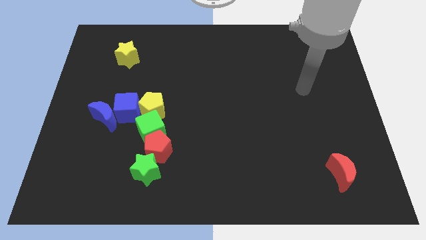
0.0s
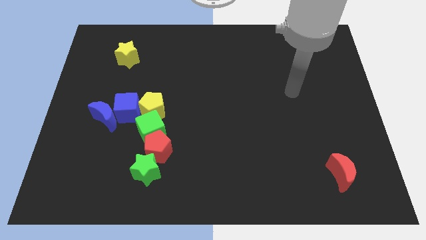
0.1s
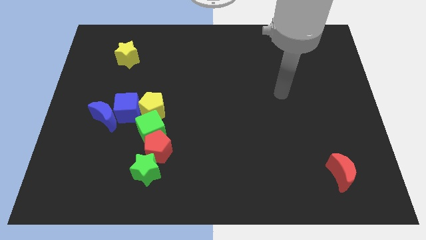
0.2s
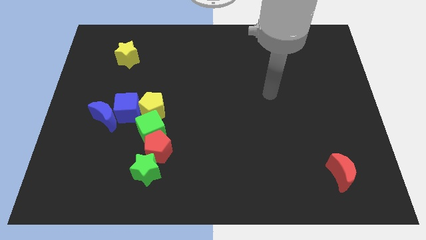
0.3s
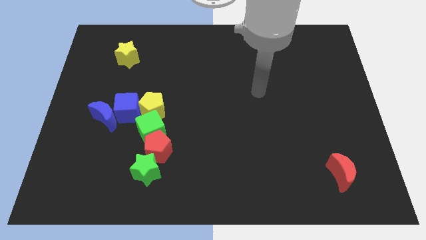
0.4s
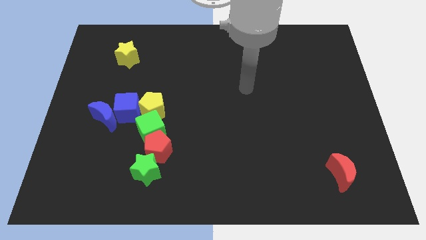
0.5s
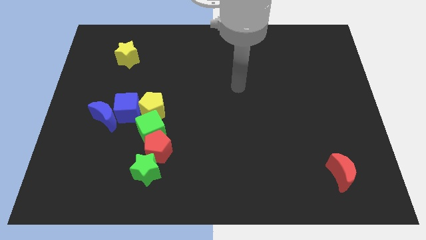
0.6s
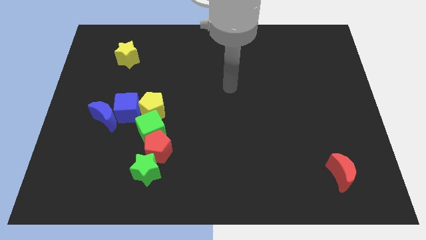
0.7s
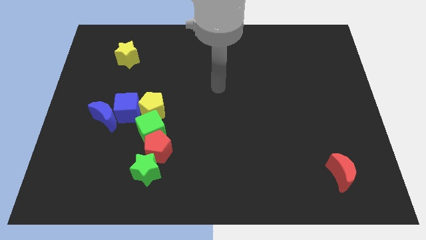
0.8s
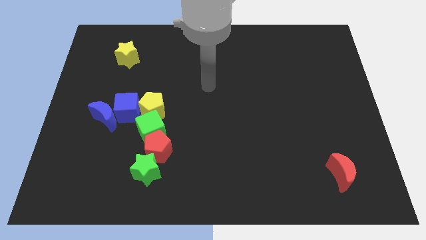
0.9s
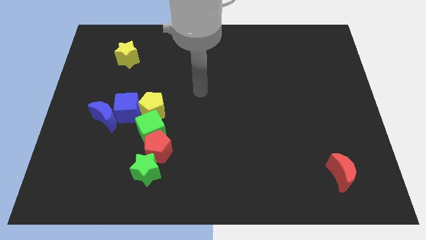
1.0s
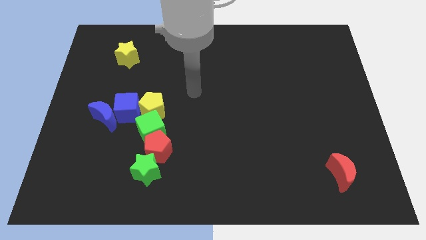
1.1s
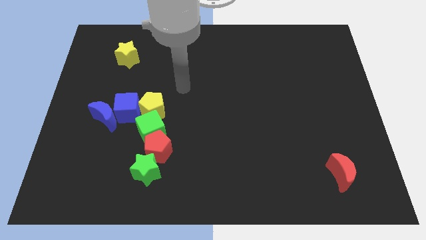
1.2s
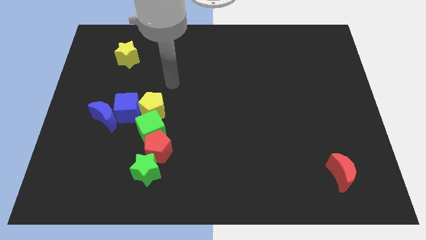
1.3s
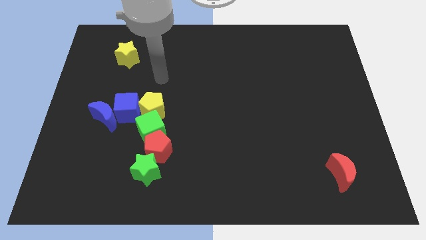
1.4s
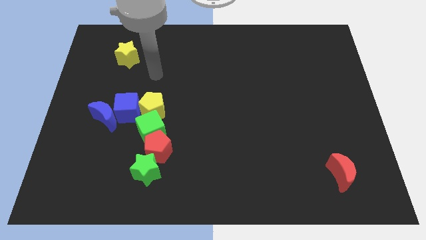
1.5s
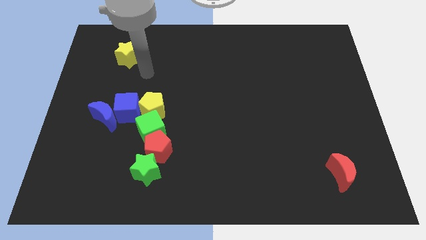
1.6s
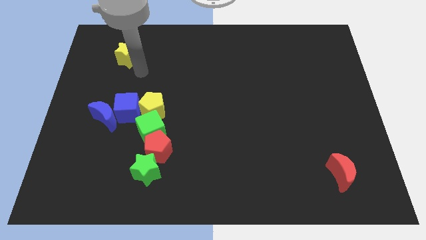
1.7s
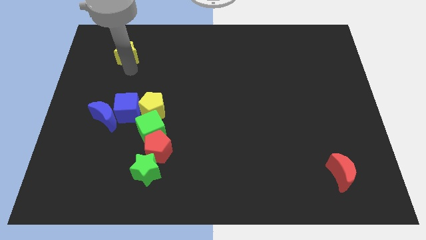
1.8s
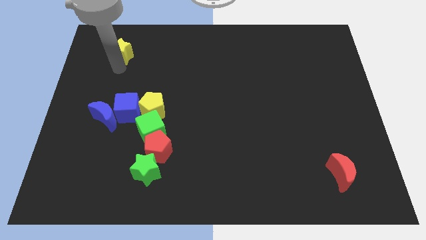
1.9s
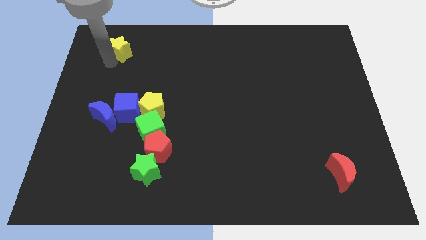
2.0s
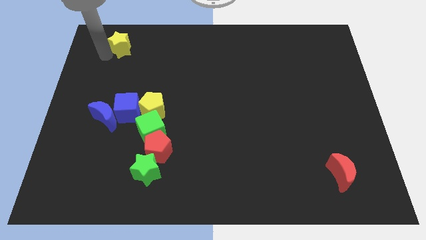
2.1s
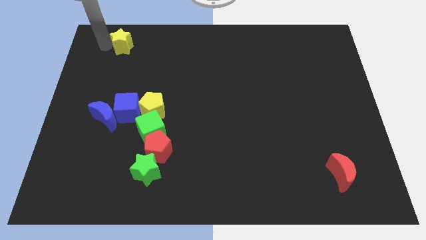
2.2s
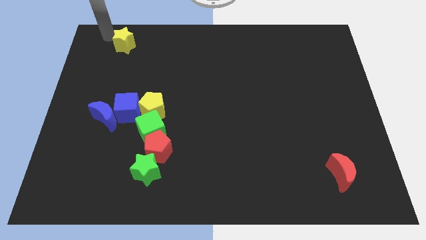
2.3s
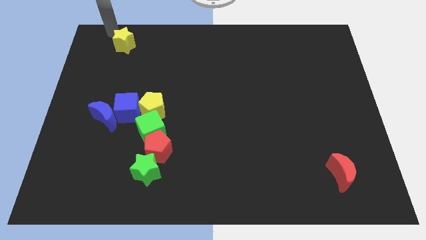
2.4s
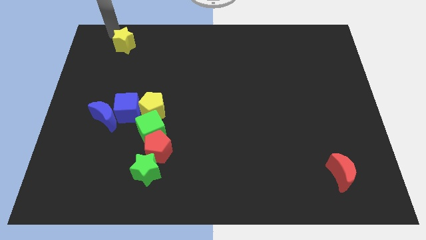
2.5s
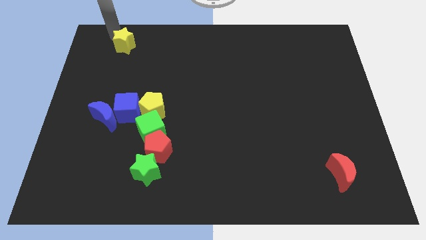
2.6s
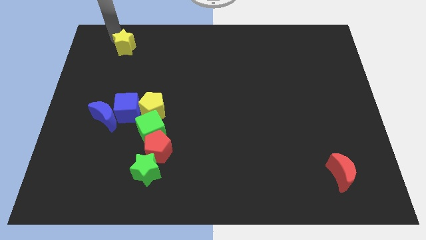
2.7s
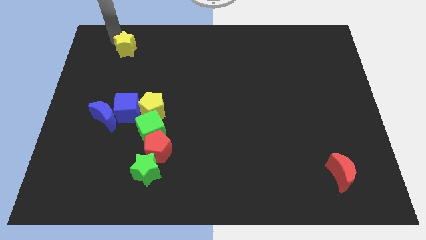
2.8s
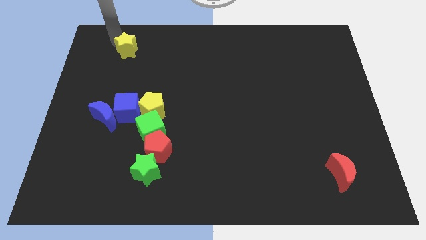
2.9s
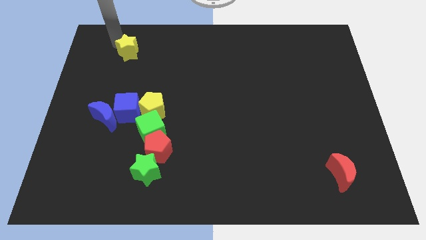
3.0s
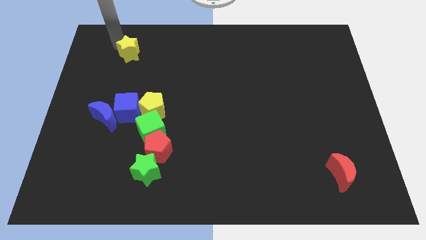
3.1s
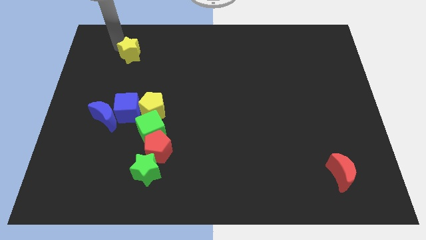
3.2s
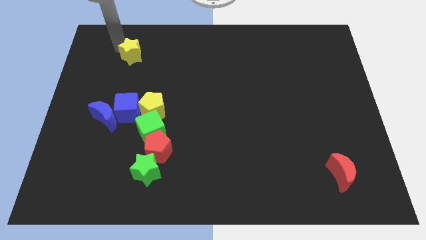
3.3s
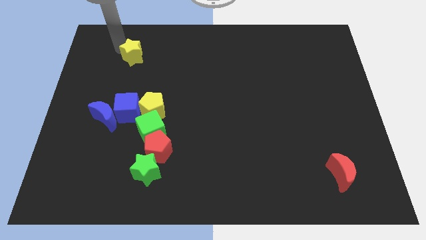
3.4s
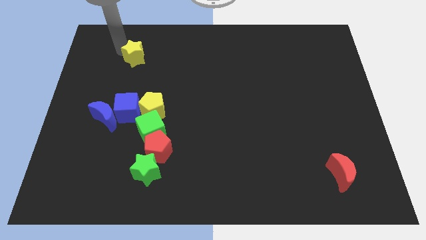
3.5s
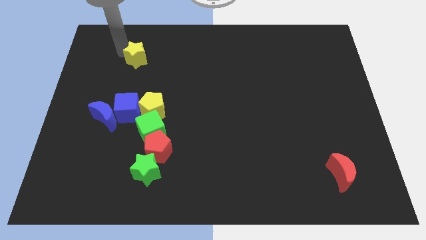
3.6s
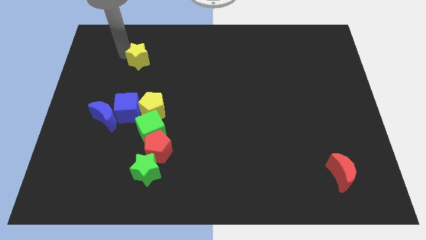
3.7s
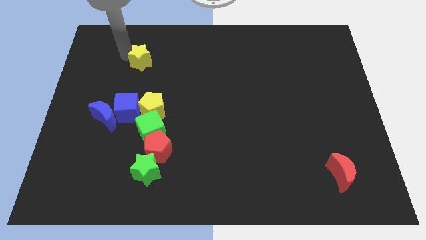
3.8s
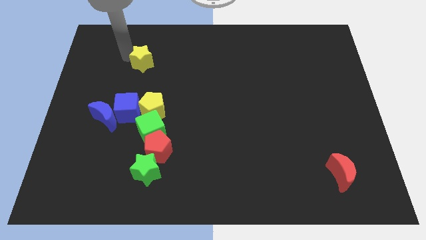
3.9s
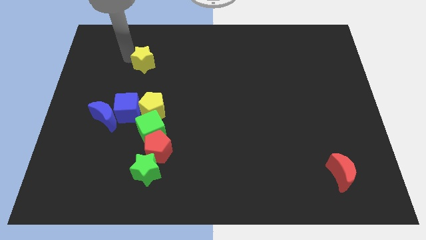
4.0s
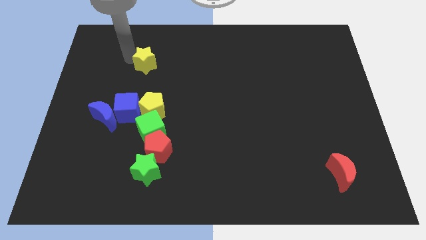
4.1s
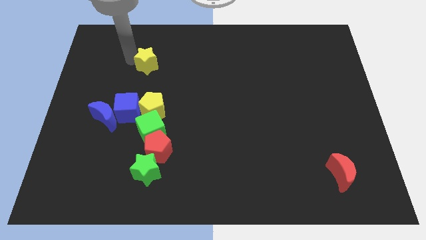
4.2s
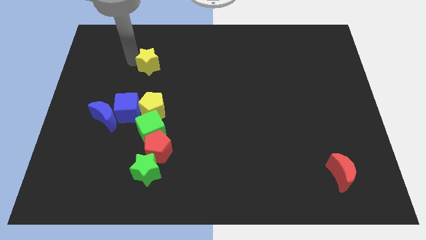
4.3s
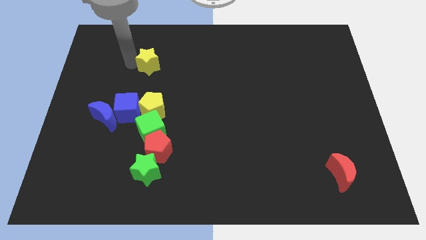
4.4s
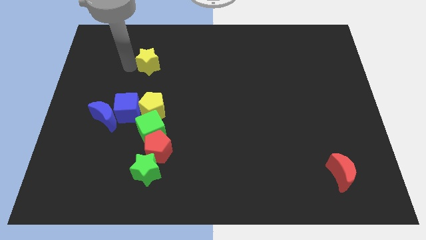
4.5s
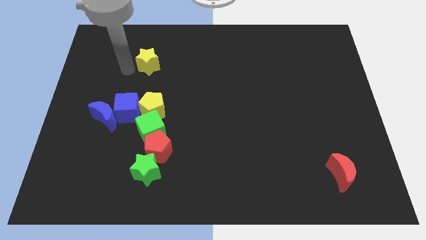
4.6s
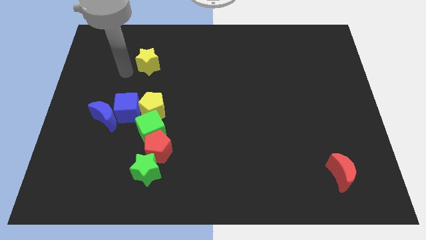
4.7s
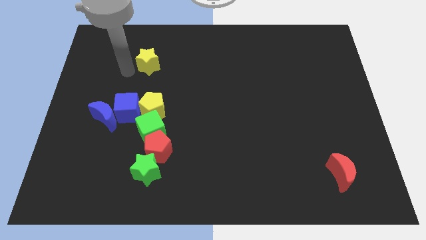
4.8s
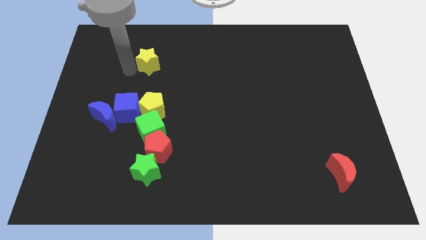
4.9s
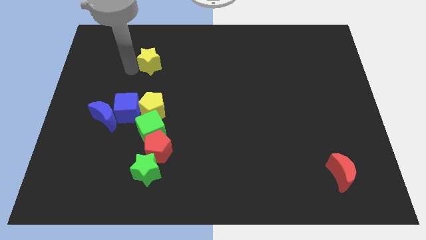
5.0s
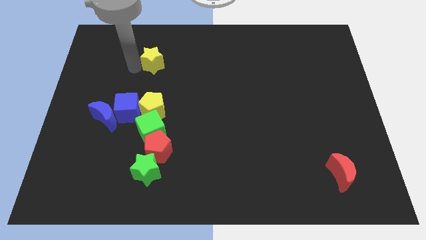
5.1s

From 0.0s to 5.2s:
slightly slide the yellow star to the right

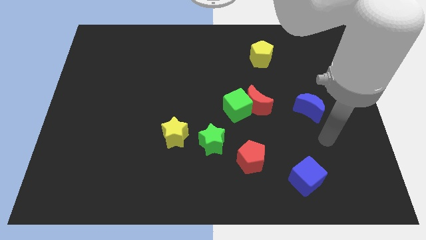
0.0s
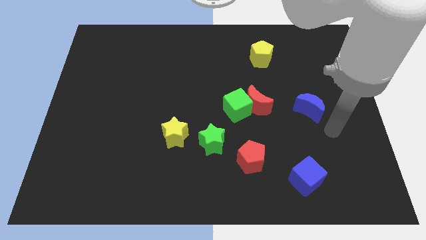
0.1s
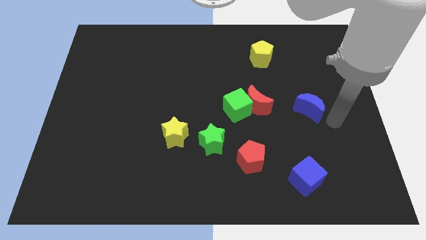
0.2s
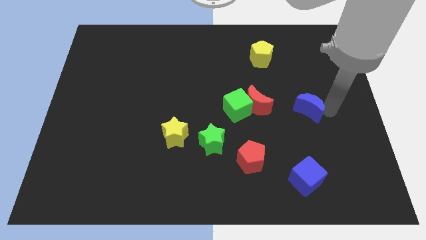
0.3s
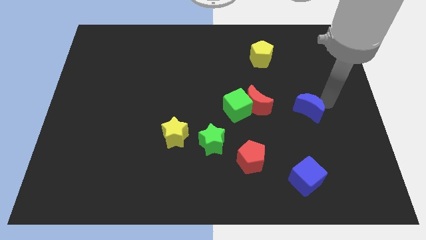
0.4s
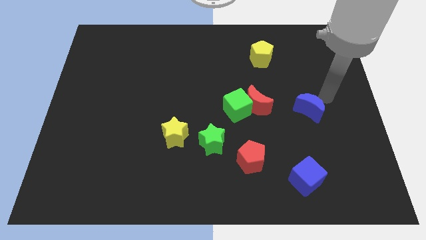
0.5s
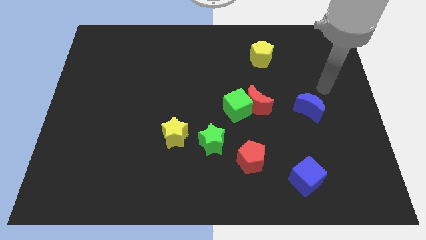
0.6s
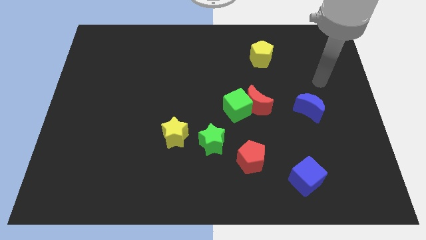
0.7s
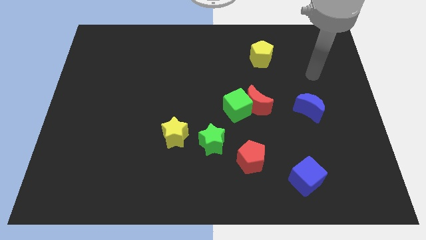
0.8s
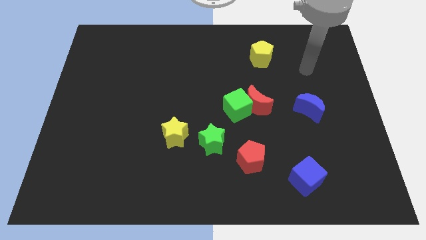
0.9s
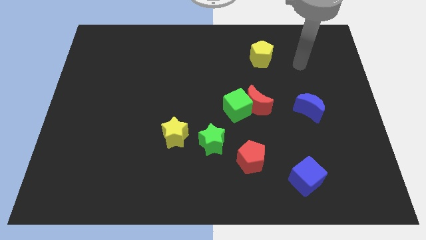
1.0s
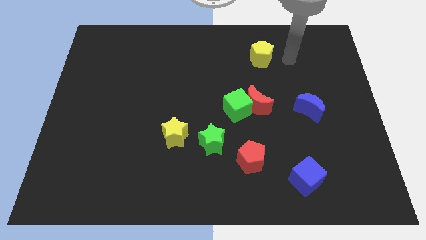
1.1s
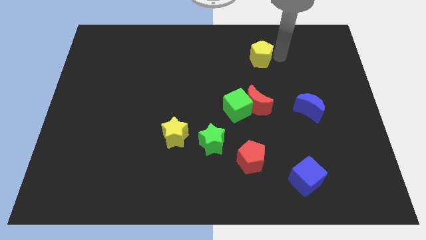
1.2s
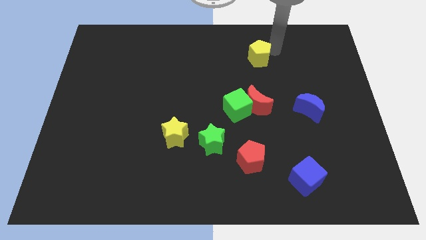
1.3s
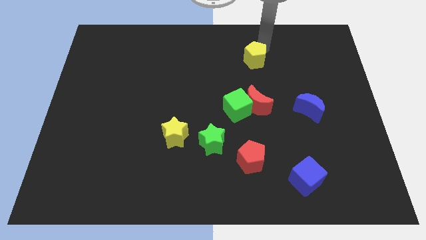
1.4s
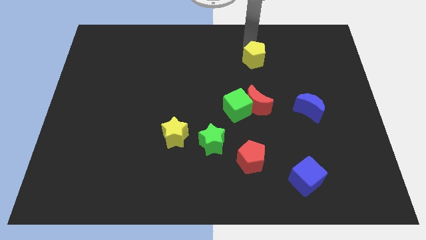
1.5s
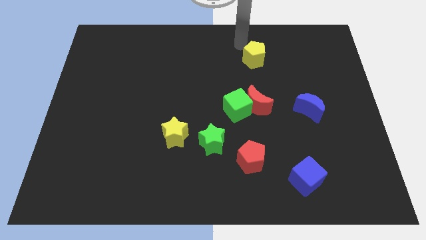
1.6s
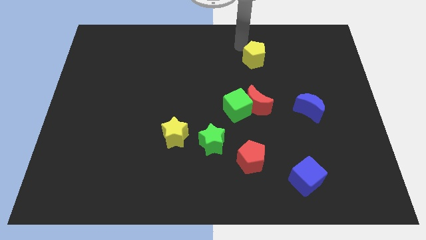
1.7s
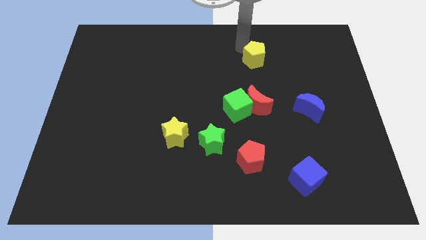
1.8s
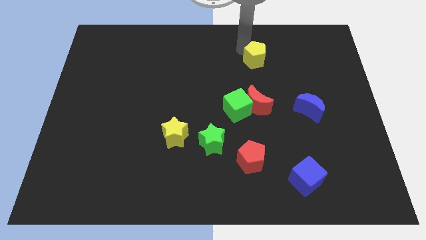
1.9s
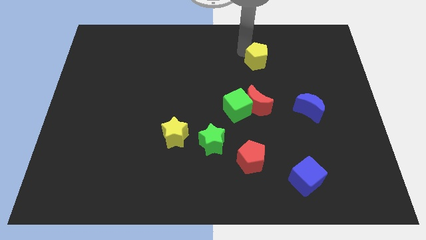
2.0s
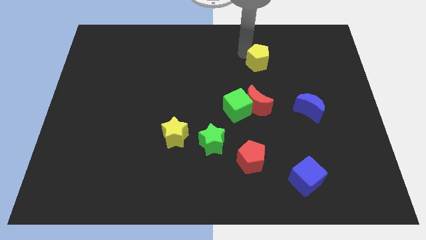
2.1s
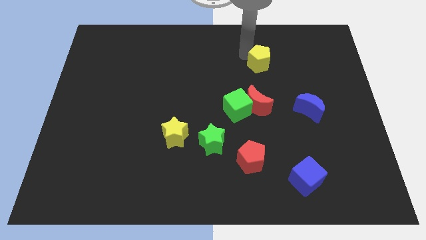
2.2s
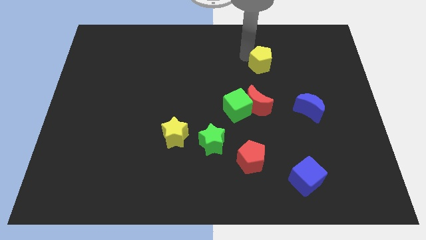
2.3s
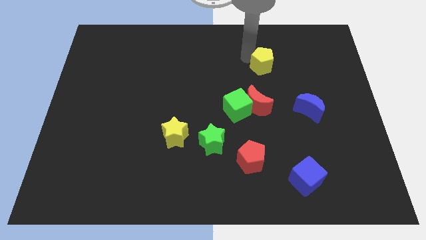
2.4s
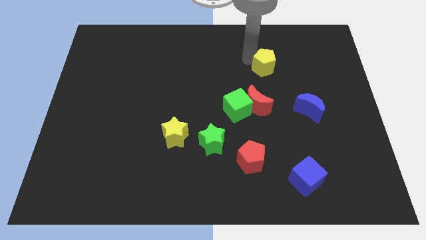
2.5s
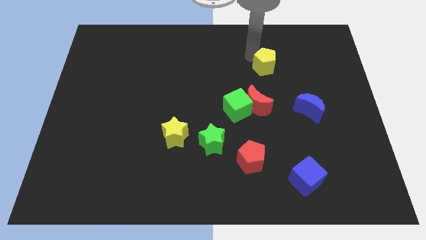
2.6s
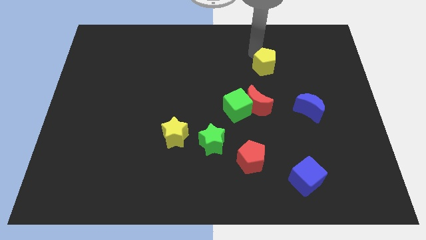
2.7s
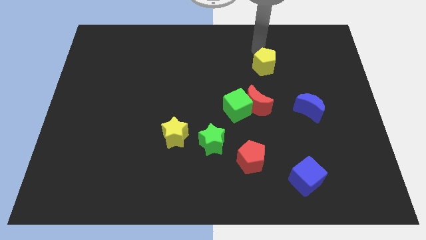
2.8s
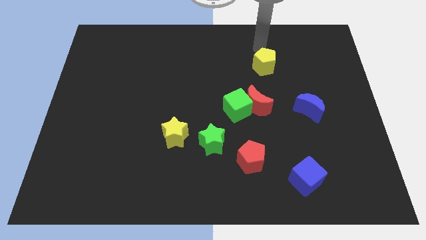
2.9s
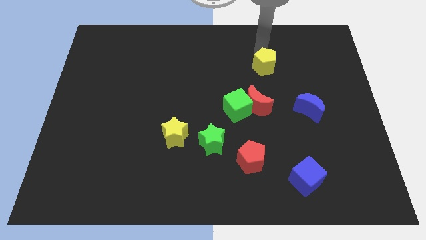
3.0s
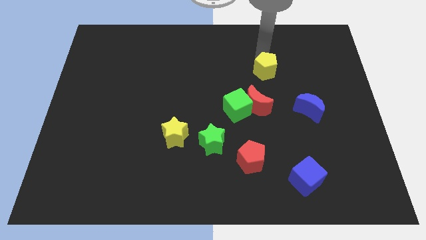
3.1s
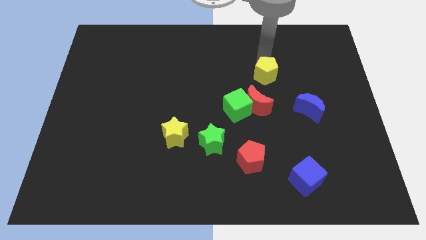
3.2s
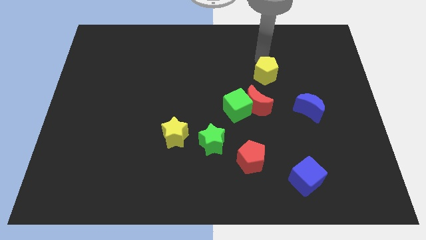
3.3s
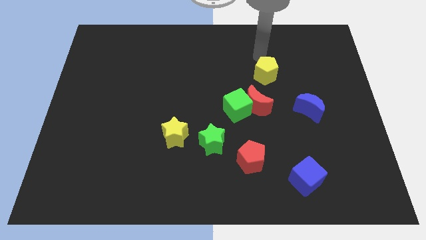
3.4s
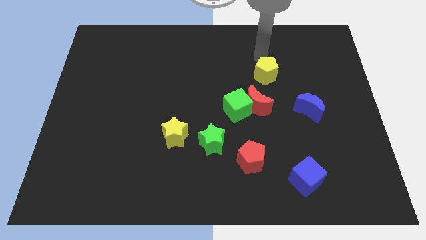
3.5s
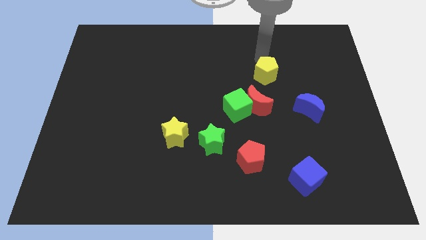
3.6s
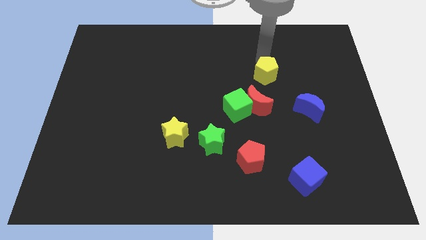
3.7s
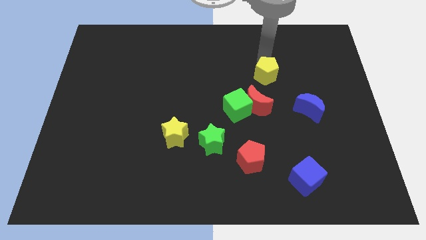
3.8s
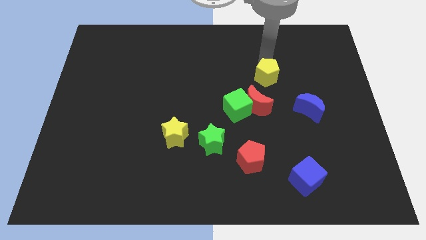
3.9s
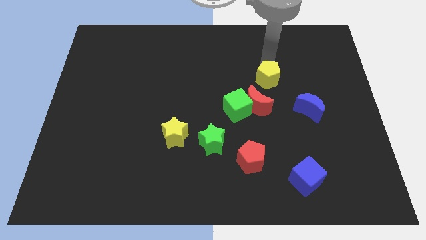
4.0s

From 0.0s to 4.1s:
move the yellow pentagon a bit down
